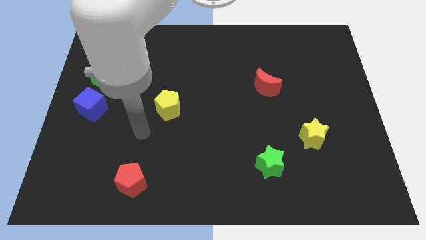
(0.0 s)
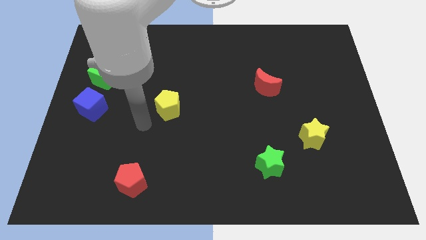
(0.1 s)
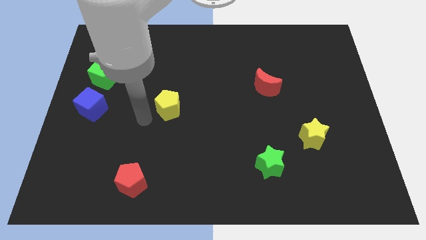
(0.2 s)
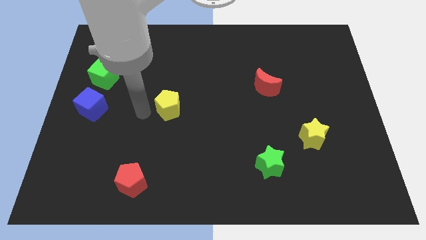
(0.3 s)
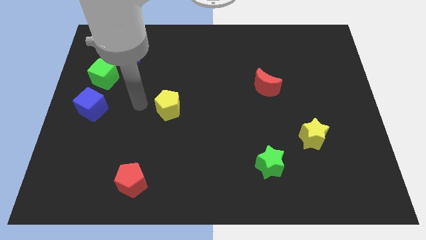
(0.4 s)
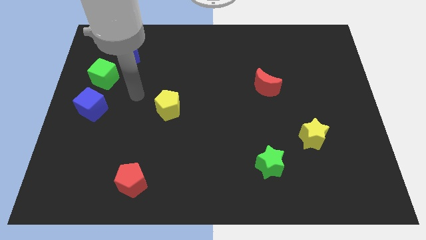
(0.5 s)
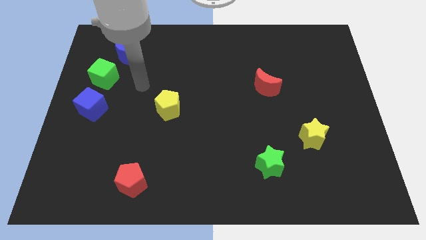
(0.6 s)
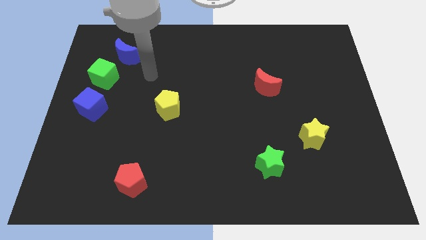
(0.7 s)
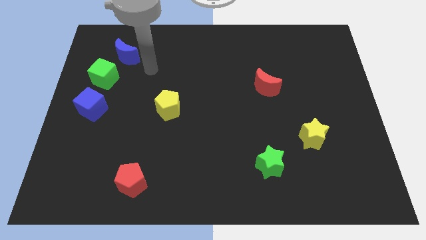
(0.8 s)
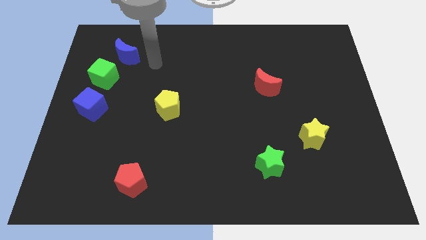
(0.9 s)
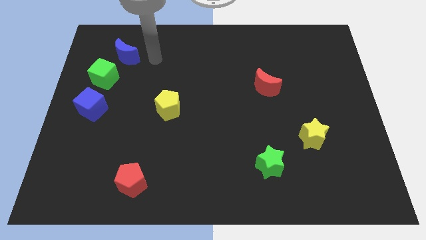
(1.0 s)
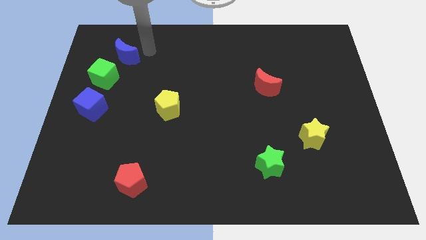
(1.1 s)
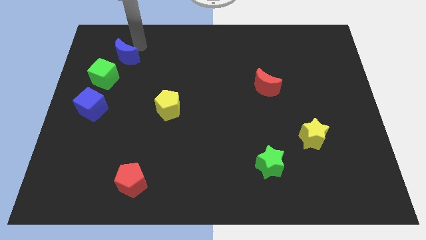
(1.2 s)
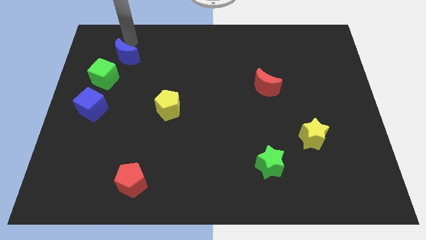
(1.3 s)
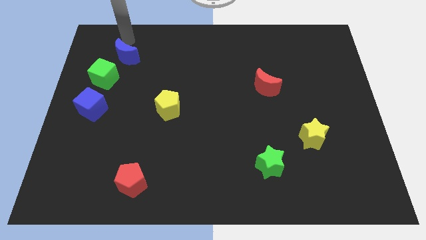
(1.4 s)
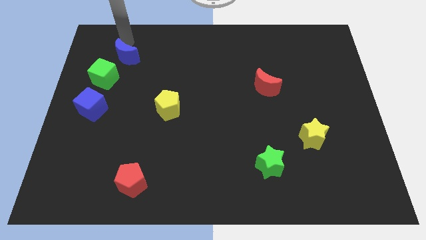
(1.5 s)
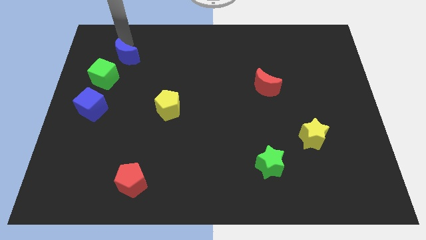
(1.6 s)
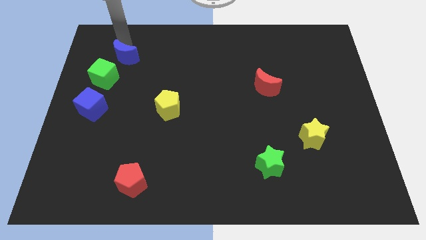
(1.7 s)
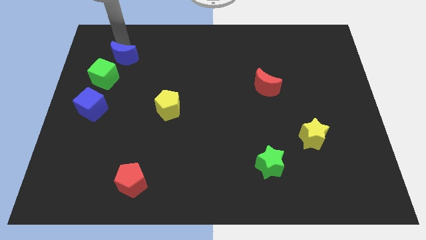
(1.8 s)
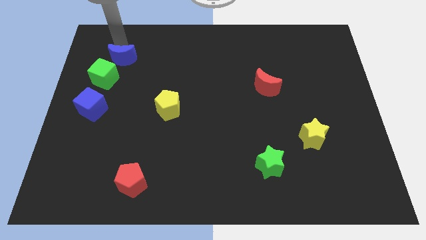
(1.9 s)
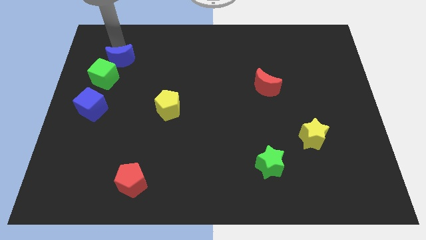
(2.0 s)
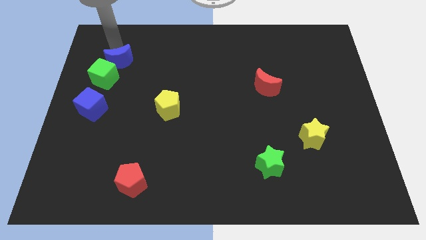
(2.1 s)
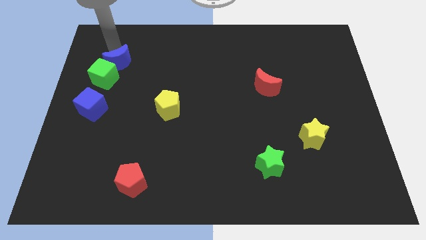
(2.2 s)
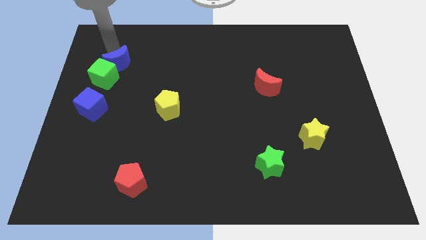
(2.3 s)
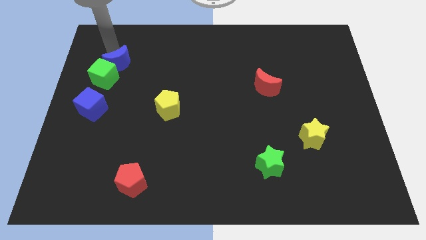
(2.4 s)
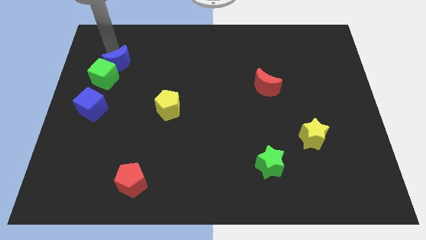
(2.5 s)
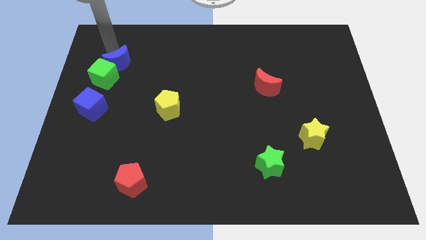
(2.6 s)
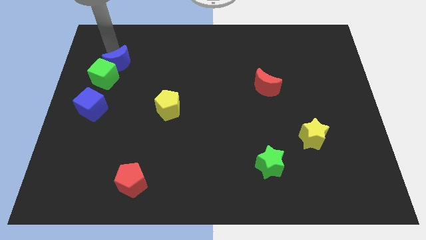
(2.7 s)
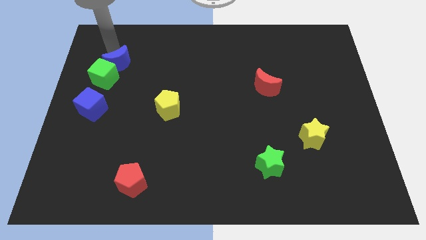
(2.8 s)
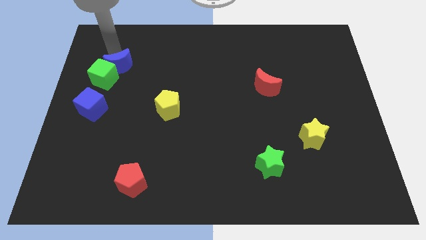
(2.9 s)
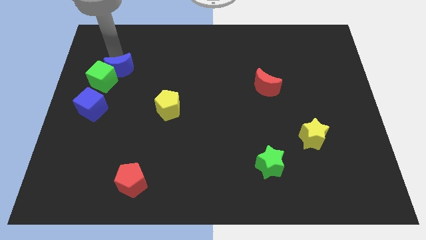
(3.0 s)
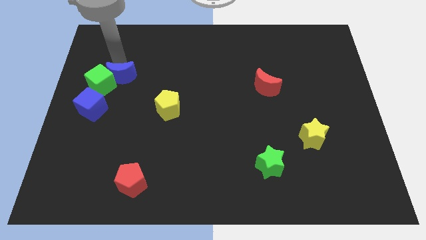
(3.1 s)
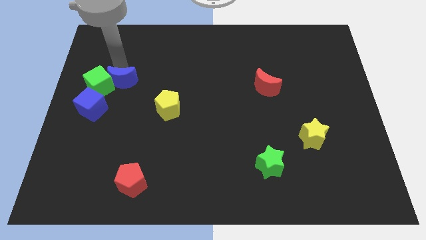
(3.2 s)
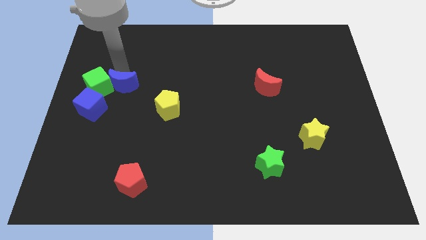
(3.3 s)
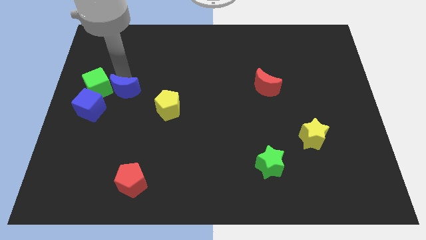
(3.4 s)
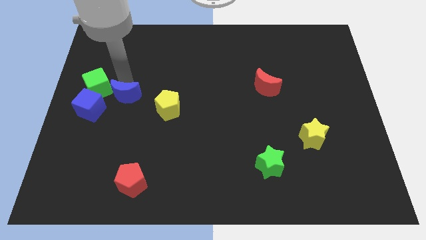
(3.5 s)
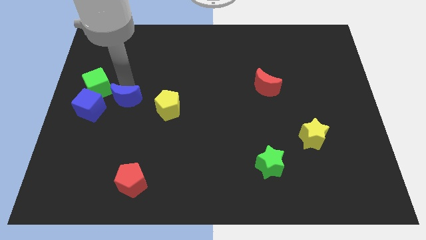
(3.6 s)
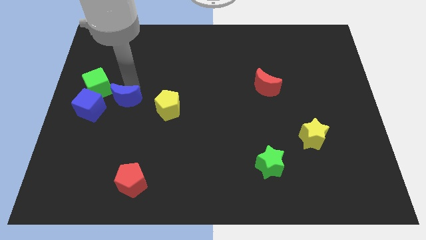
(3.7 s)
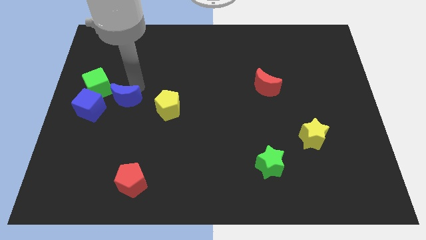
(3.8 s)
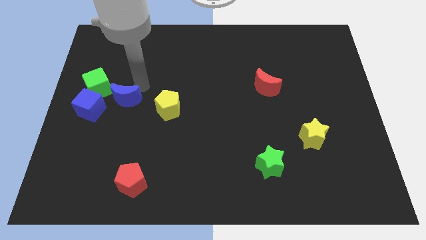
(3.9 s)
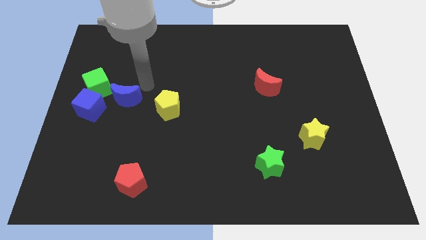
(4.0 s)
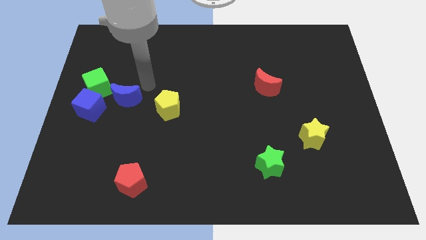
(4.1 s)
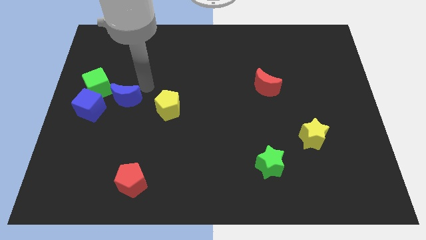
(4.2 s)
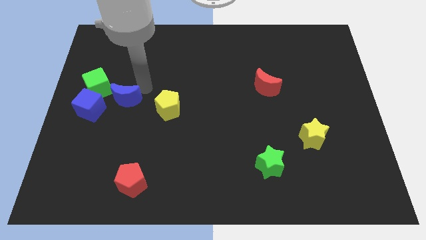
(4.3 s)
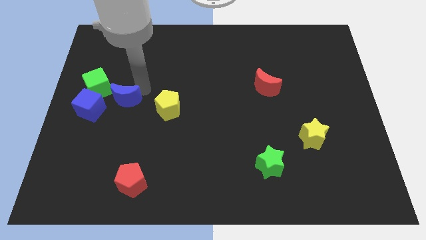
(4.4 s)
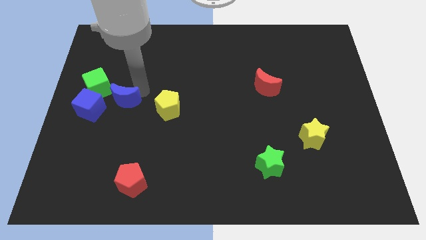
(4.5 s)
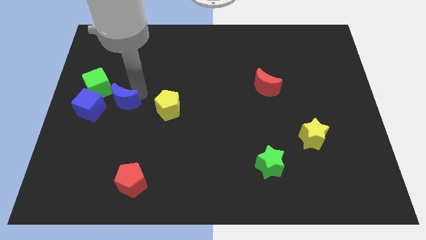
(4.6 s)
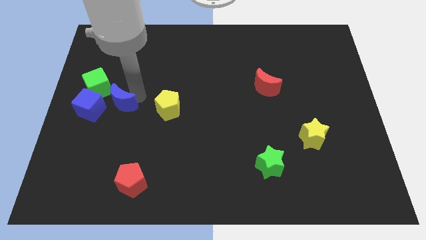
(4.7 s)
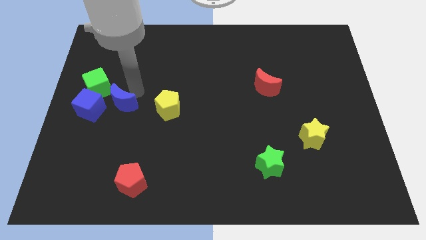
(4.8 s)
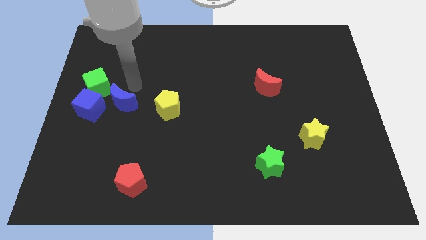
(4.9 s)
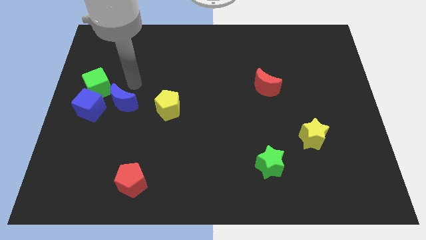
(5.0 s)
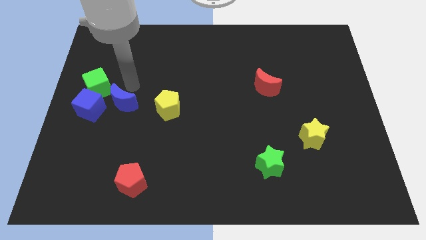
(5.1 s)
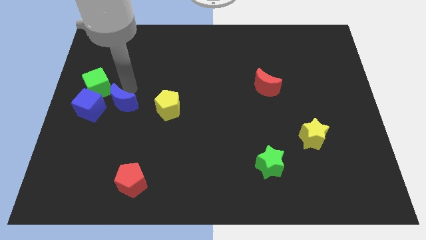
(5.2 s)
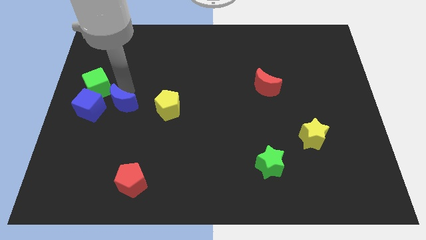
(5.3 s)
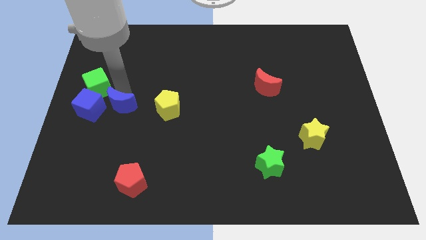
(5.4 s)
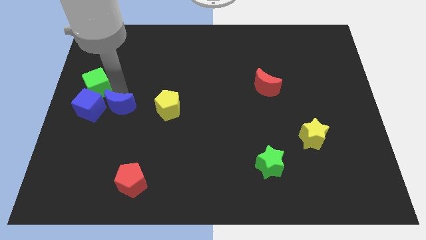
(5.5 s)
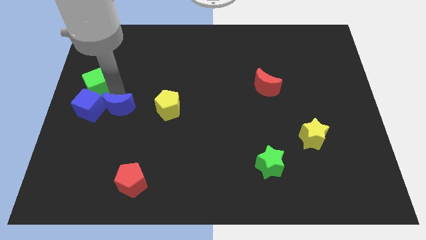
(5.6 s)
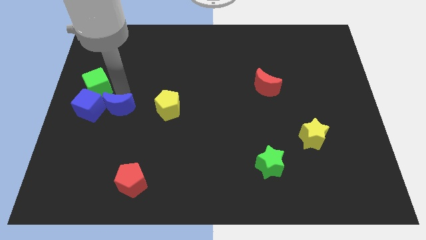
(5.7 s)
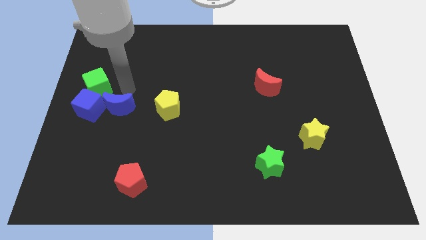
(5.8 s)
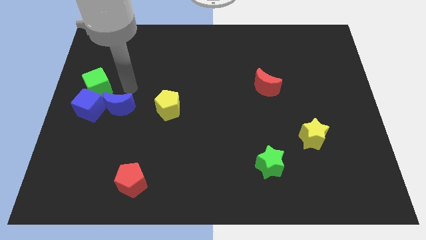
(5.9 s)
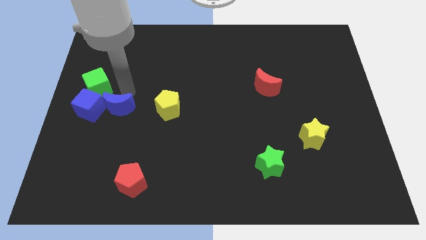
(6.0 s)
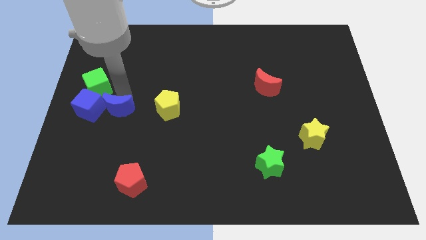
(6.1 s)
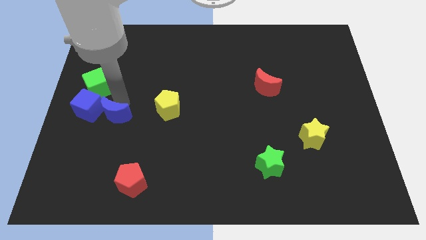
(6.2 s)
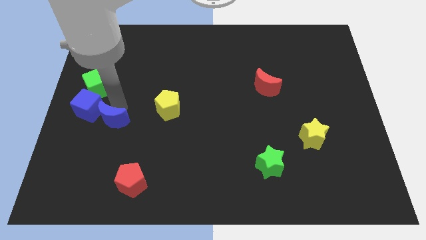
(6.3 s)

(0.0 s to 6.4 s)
move the blue moon downwards

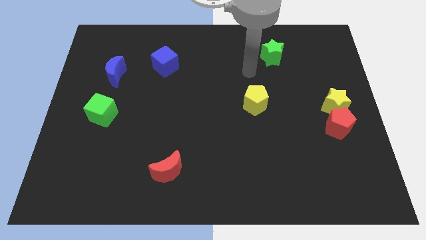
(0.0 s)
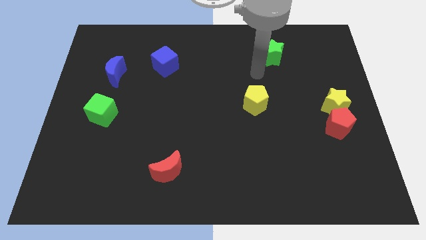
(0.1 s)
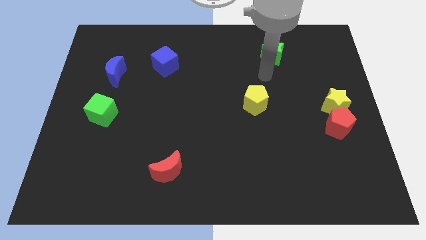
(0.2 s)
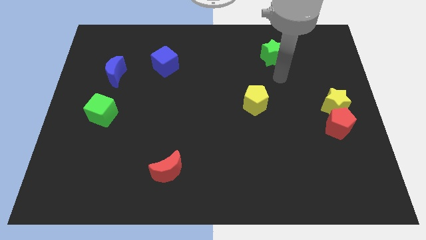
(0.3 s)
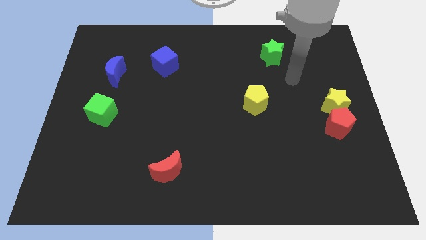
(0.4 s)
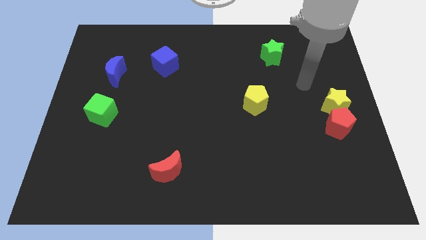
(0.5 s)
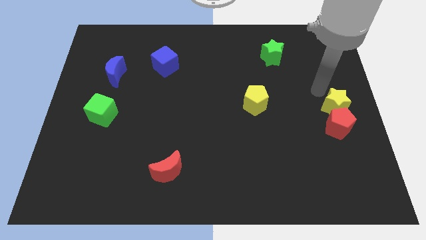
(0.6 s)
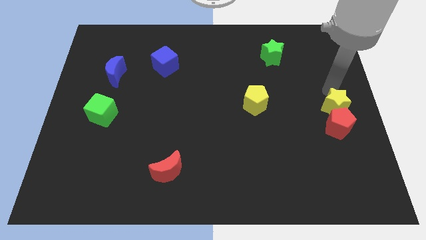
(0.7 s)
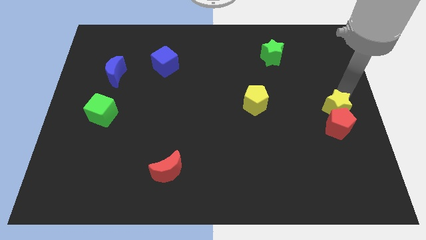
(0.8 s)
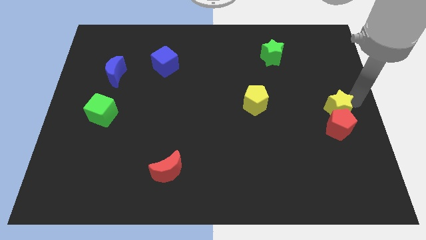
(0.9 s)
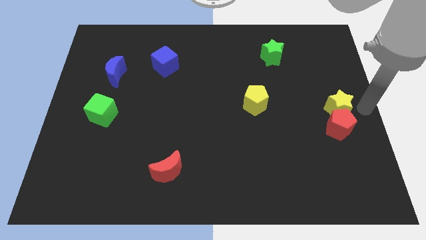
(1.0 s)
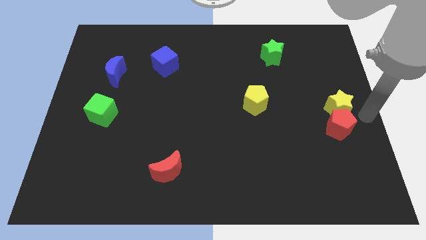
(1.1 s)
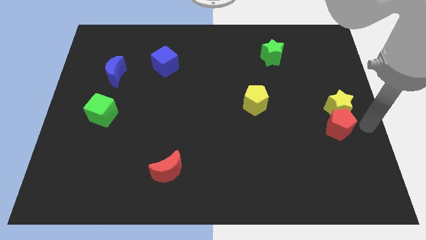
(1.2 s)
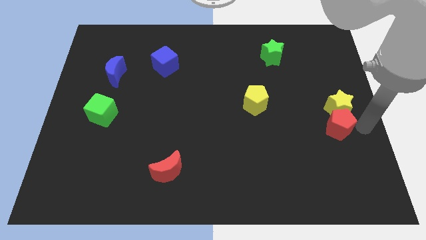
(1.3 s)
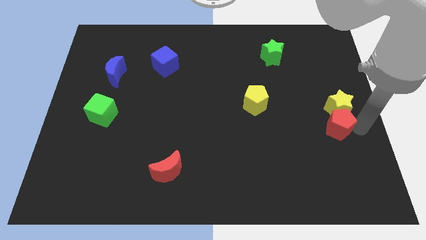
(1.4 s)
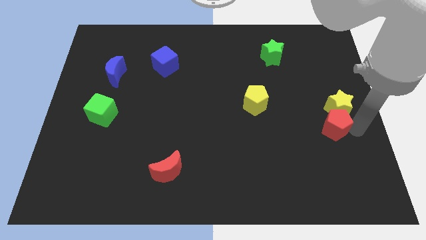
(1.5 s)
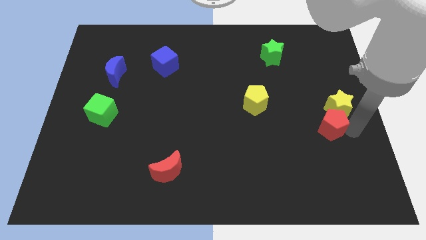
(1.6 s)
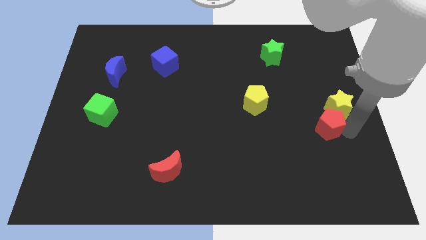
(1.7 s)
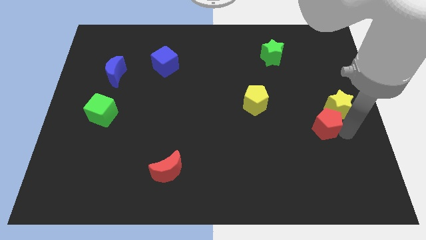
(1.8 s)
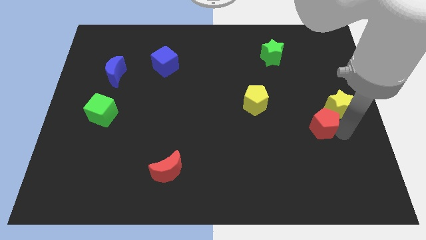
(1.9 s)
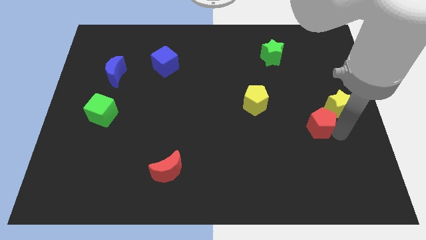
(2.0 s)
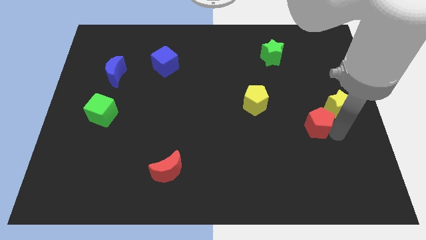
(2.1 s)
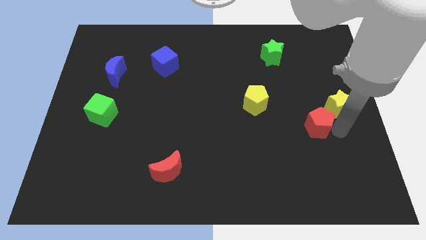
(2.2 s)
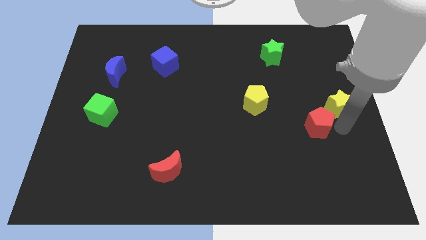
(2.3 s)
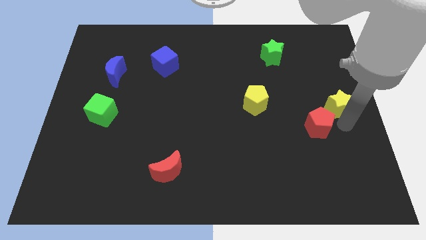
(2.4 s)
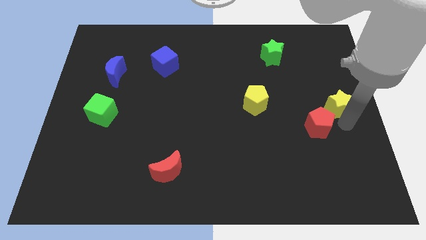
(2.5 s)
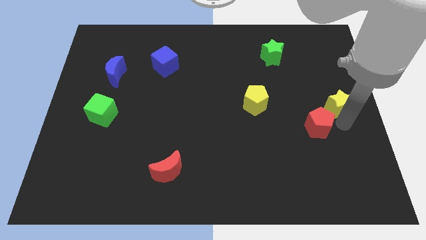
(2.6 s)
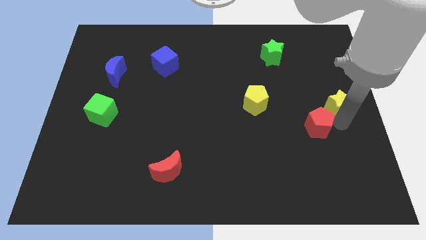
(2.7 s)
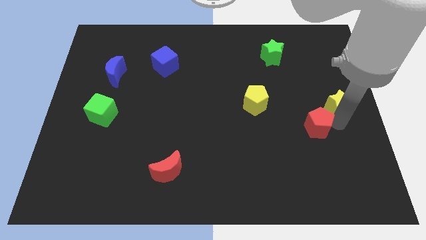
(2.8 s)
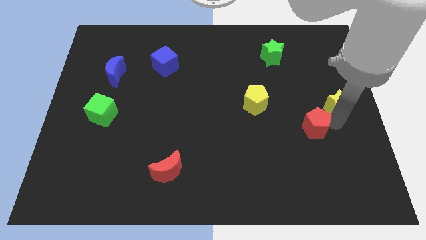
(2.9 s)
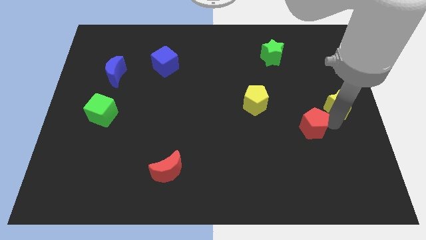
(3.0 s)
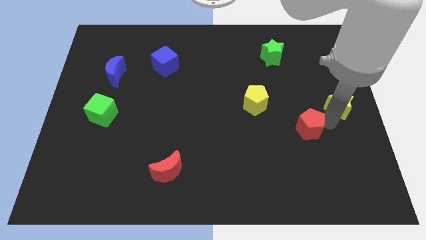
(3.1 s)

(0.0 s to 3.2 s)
push the red pentagon to the left a little
